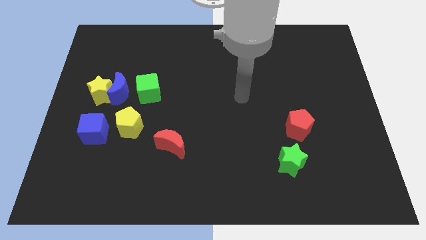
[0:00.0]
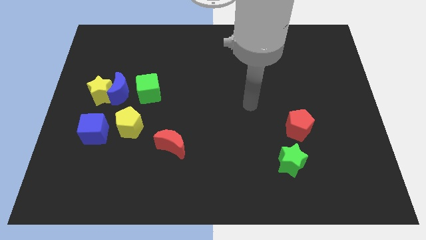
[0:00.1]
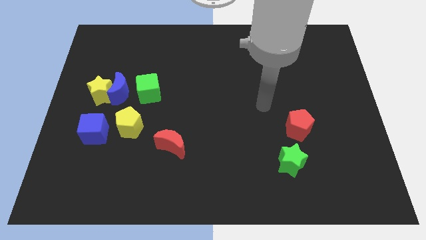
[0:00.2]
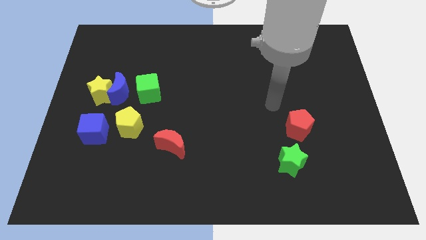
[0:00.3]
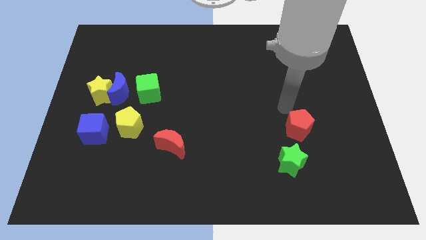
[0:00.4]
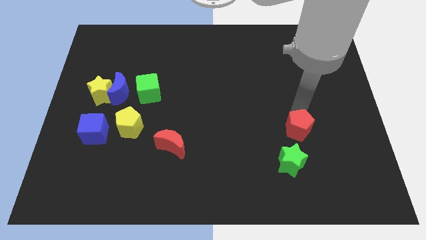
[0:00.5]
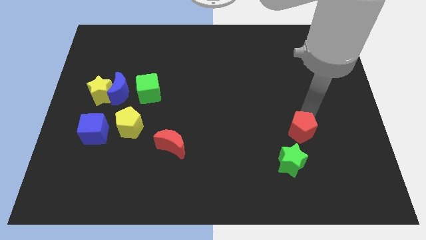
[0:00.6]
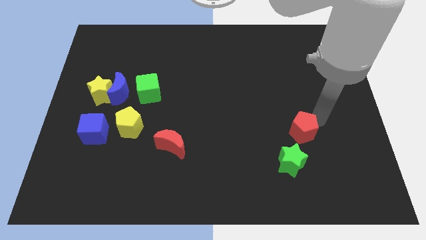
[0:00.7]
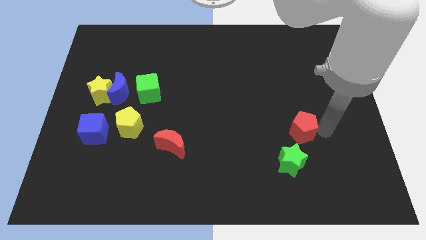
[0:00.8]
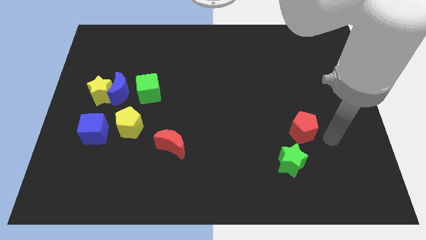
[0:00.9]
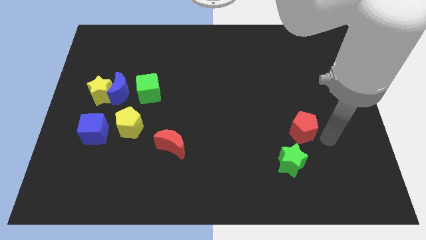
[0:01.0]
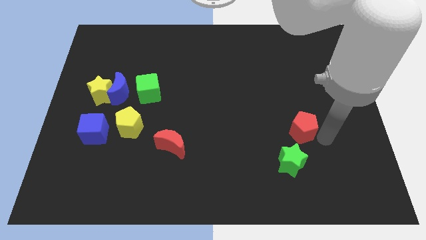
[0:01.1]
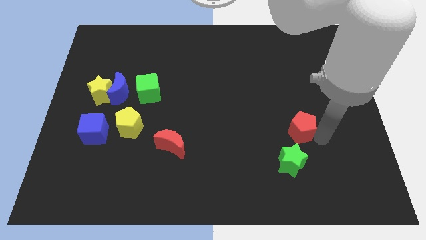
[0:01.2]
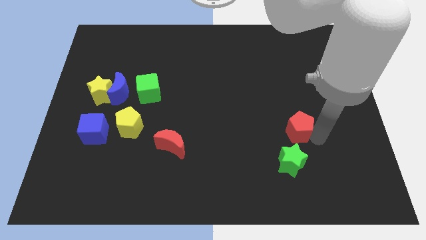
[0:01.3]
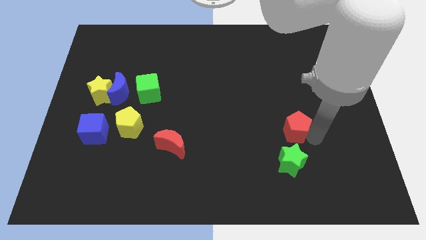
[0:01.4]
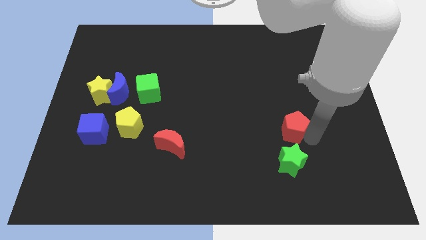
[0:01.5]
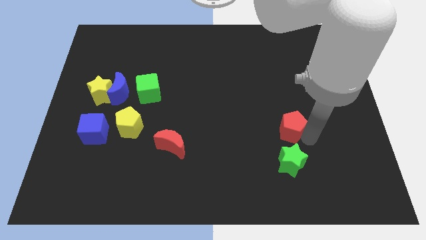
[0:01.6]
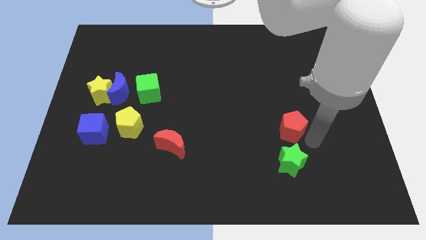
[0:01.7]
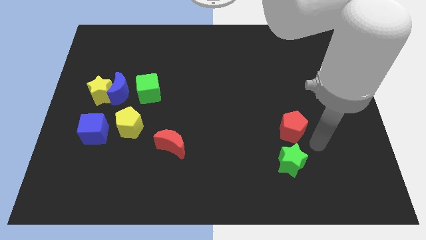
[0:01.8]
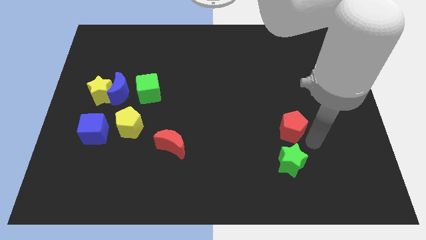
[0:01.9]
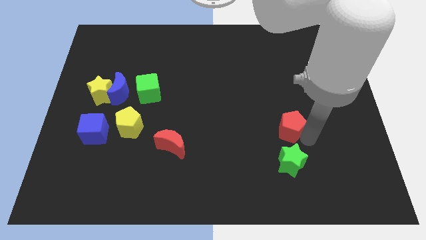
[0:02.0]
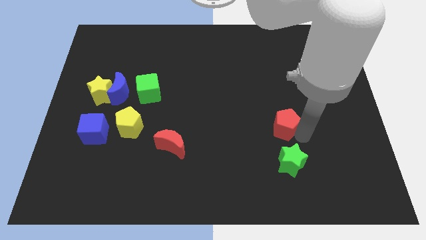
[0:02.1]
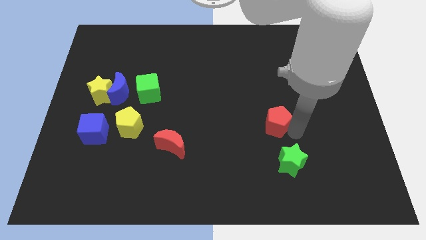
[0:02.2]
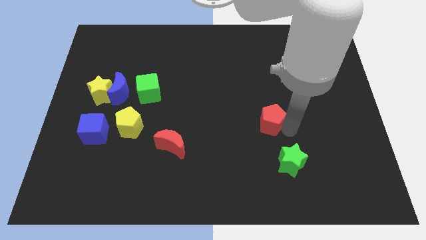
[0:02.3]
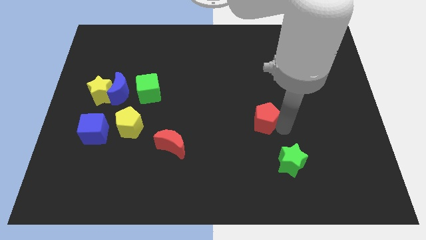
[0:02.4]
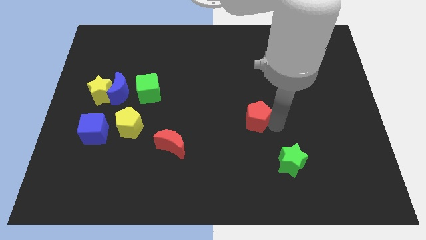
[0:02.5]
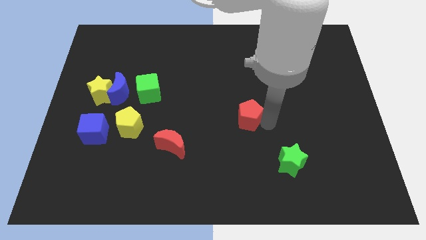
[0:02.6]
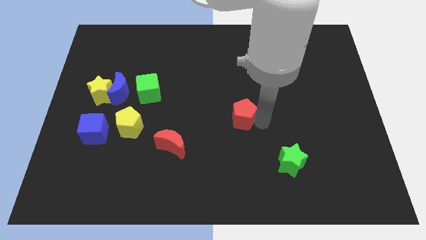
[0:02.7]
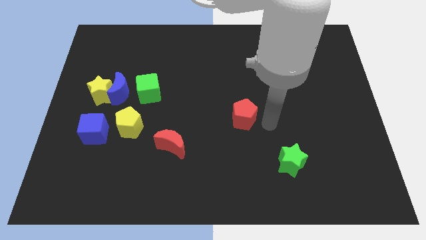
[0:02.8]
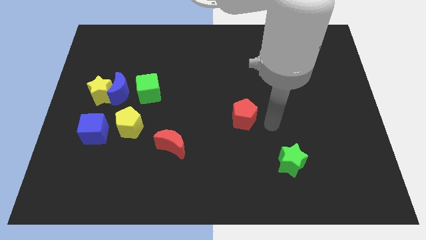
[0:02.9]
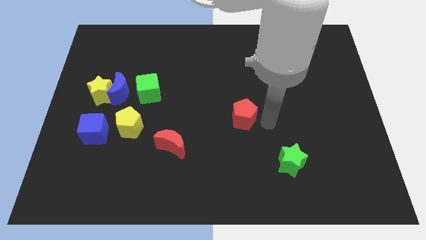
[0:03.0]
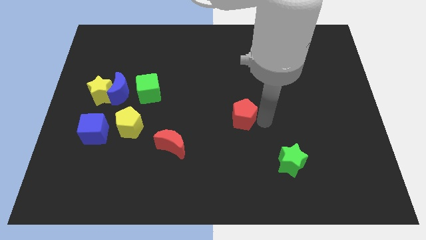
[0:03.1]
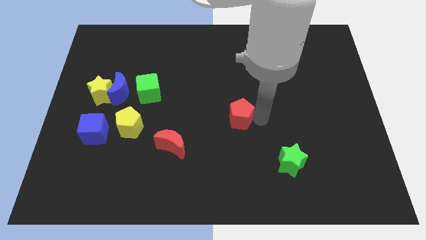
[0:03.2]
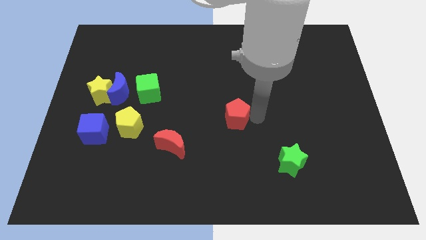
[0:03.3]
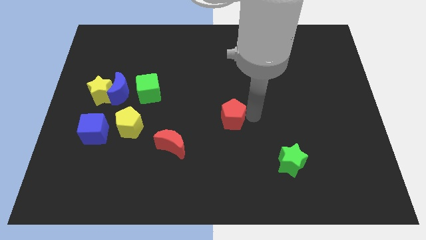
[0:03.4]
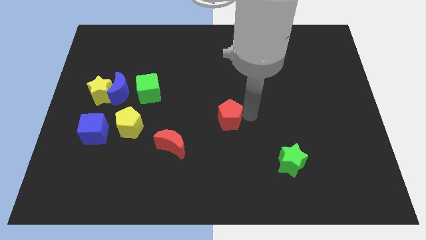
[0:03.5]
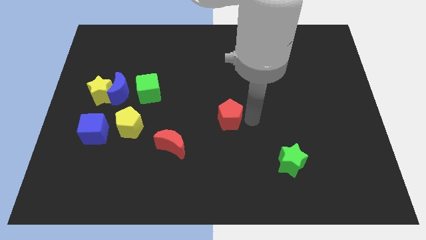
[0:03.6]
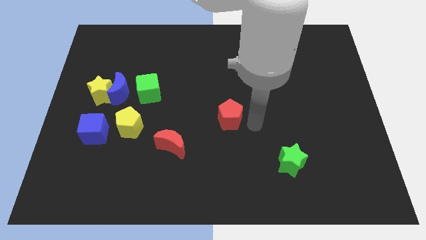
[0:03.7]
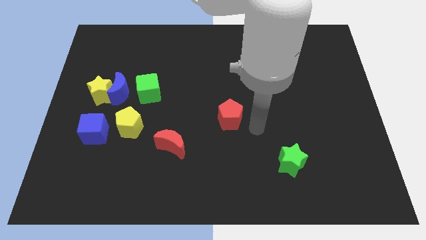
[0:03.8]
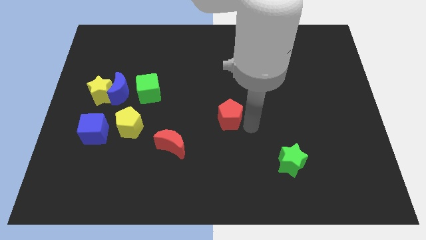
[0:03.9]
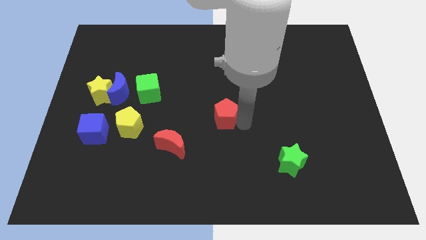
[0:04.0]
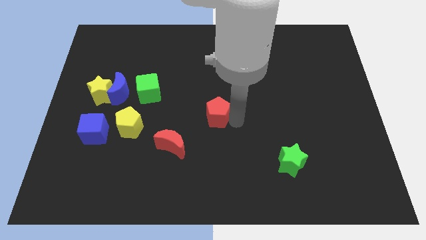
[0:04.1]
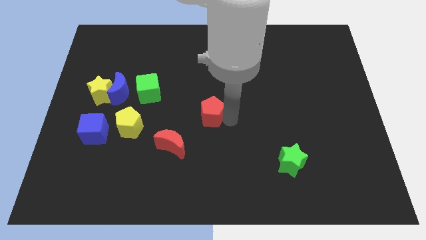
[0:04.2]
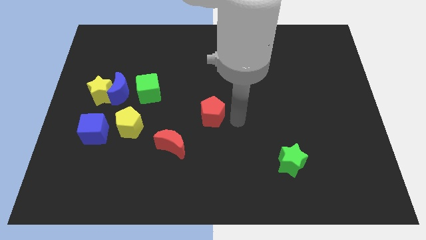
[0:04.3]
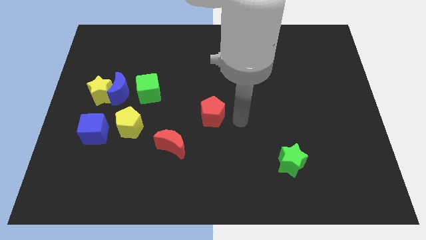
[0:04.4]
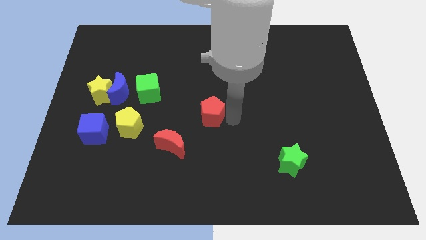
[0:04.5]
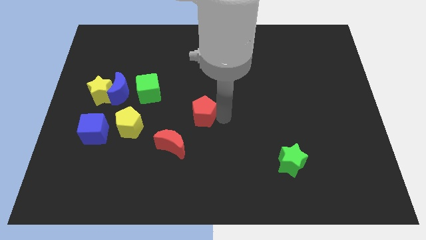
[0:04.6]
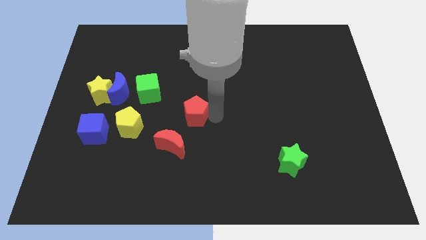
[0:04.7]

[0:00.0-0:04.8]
push the red pentagon to the top side of the red moon

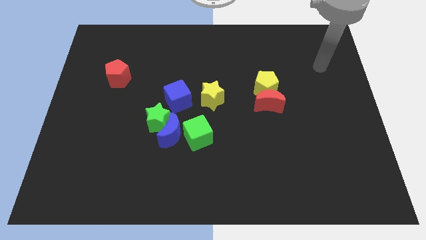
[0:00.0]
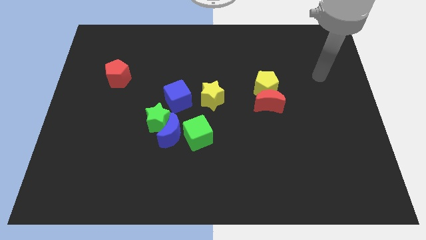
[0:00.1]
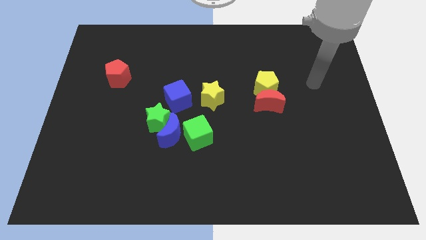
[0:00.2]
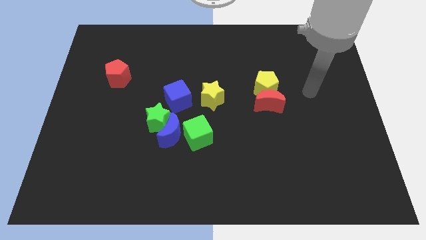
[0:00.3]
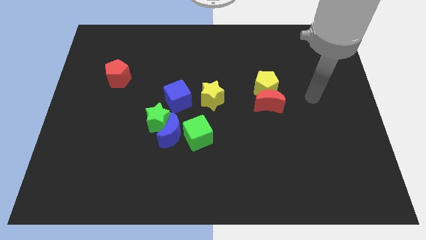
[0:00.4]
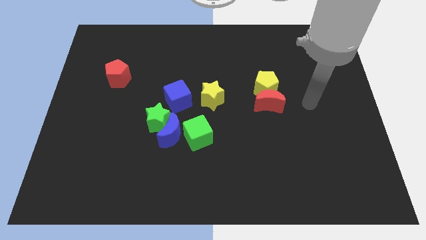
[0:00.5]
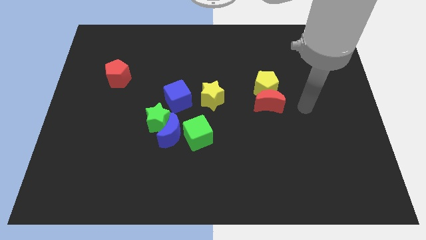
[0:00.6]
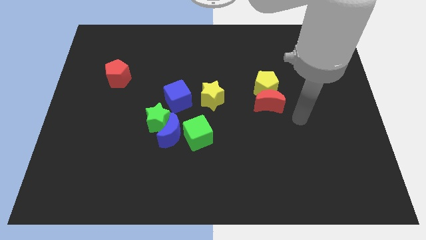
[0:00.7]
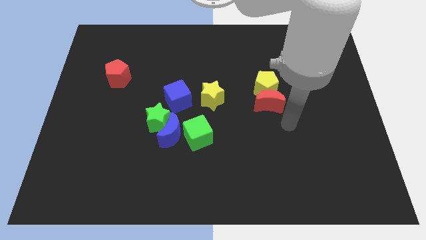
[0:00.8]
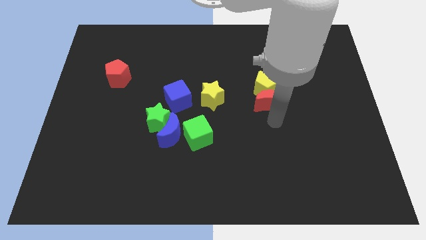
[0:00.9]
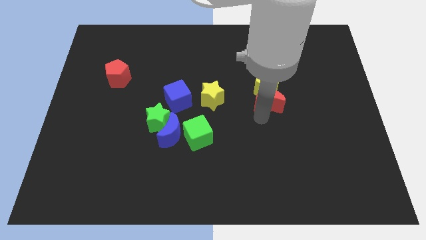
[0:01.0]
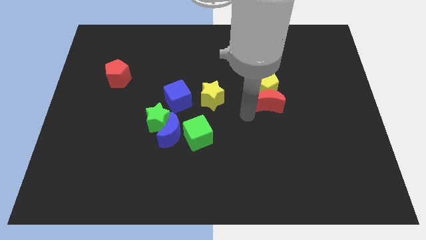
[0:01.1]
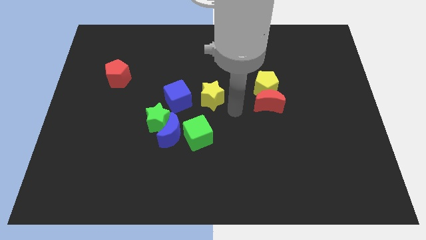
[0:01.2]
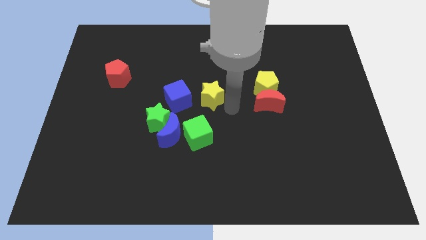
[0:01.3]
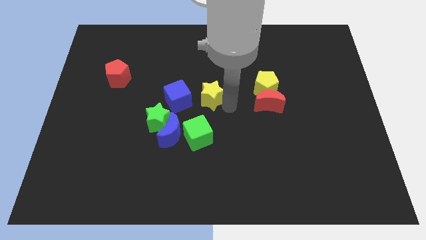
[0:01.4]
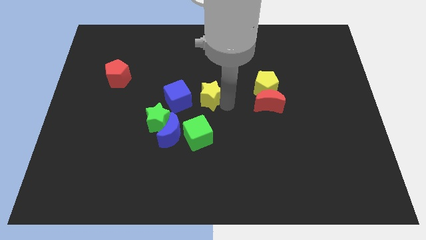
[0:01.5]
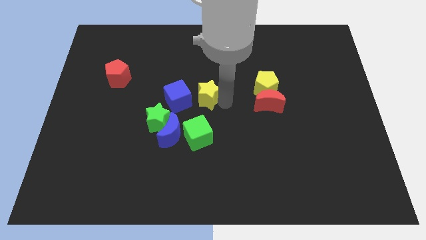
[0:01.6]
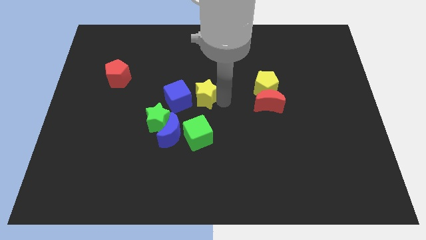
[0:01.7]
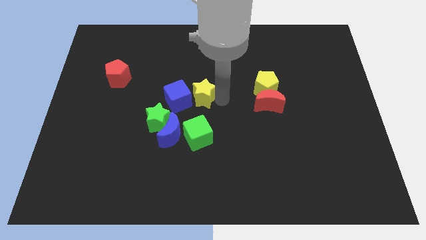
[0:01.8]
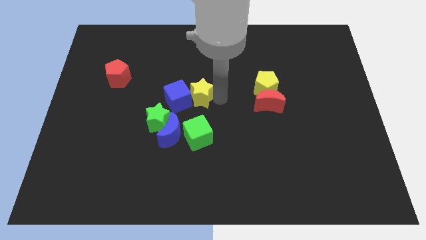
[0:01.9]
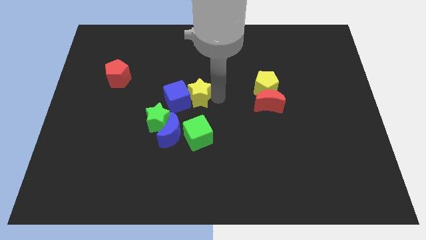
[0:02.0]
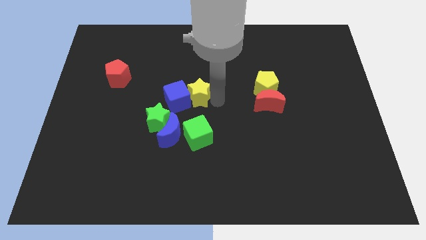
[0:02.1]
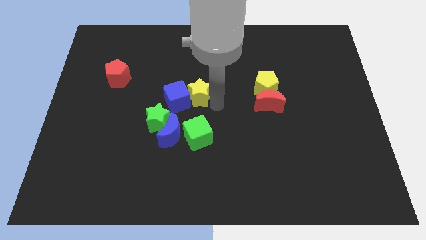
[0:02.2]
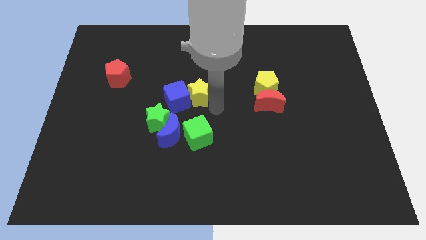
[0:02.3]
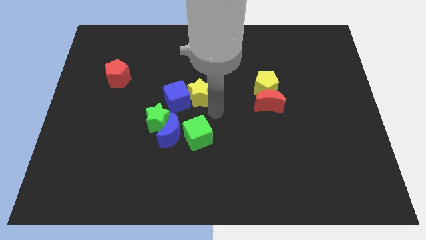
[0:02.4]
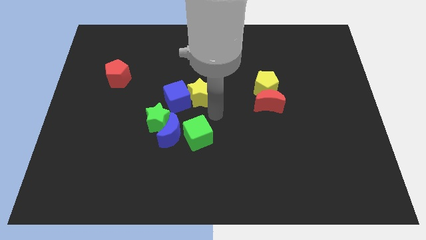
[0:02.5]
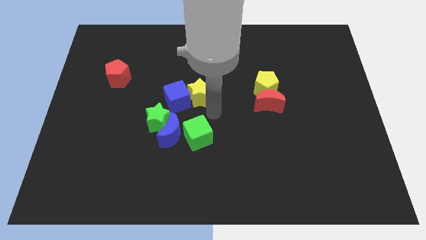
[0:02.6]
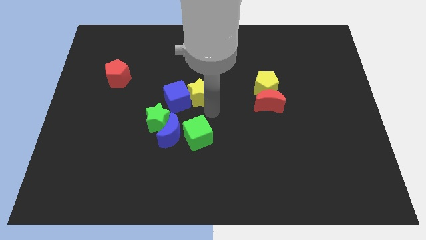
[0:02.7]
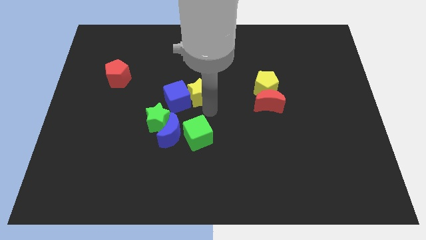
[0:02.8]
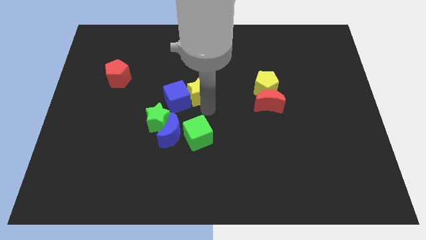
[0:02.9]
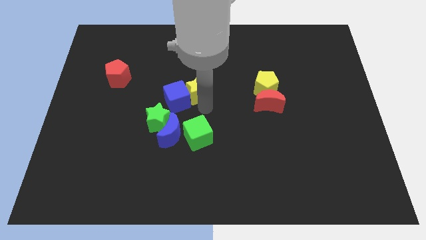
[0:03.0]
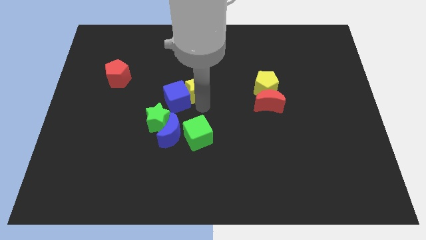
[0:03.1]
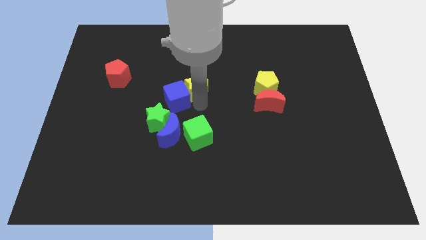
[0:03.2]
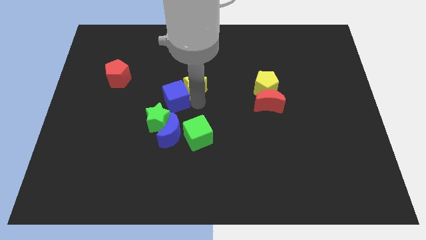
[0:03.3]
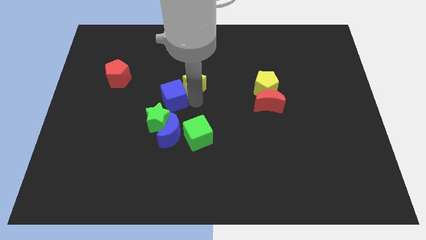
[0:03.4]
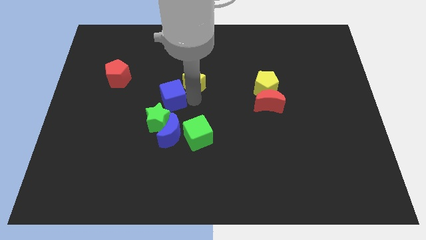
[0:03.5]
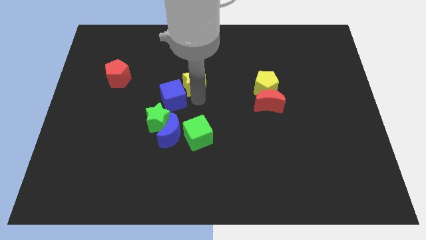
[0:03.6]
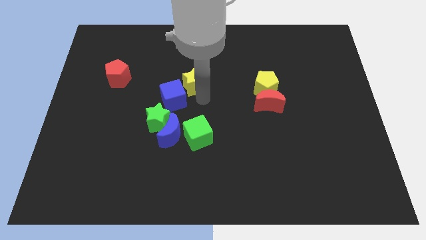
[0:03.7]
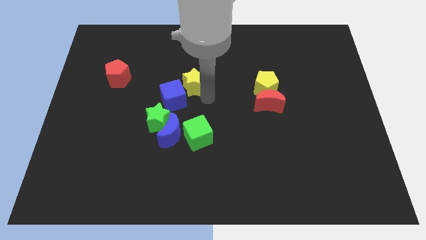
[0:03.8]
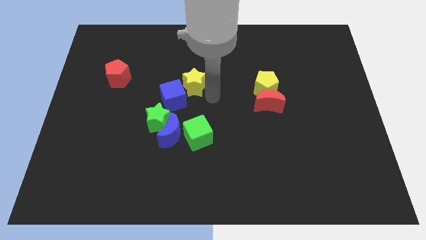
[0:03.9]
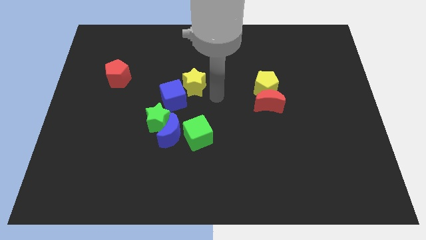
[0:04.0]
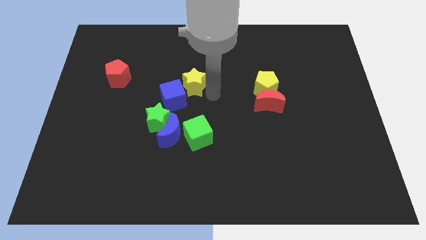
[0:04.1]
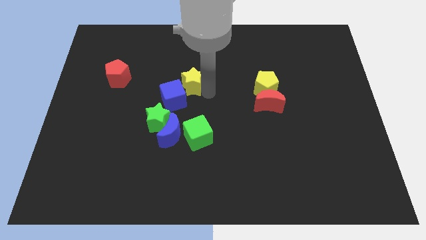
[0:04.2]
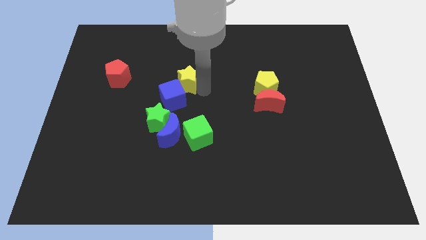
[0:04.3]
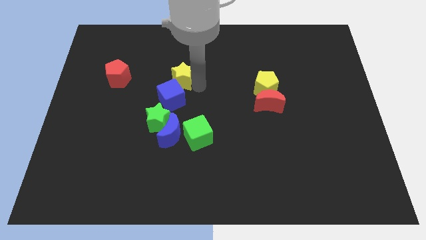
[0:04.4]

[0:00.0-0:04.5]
move the yellow star to the top of the green star
